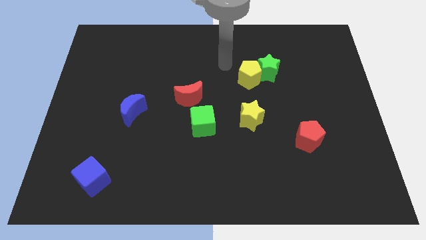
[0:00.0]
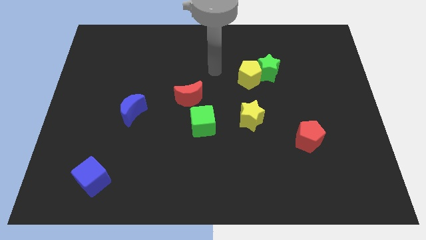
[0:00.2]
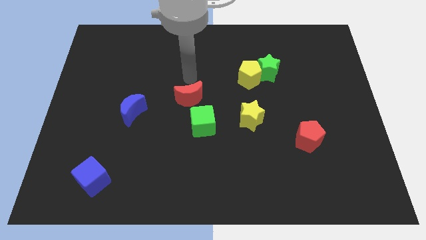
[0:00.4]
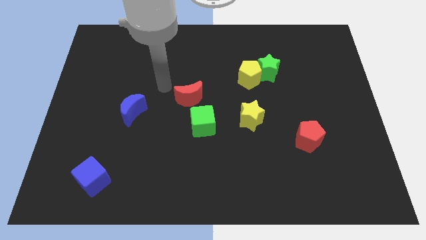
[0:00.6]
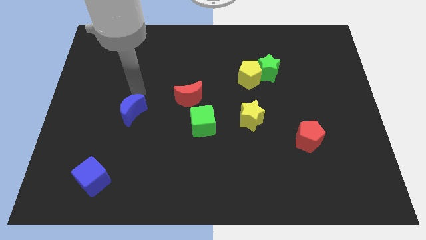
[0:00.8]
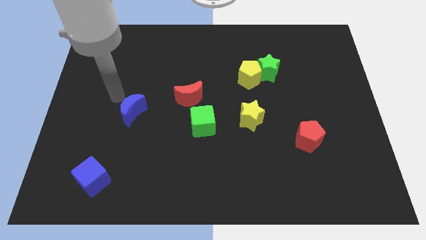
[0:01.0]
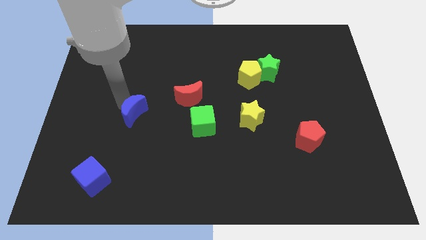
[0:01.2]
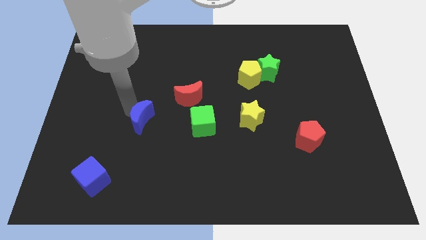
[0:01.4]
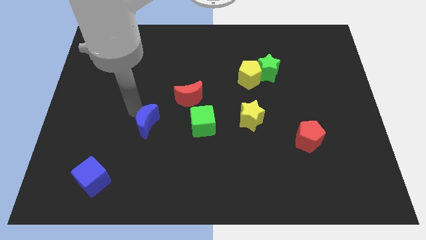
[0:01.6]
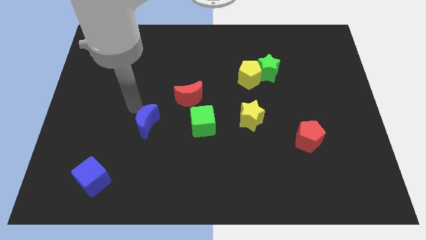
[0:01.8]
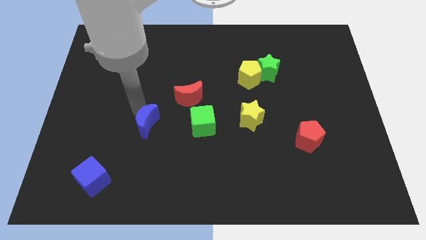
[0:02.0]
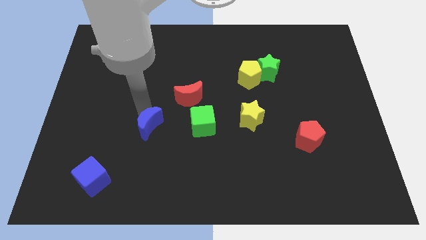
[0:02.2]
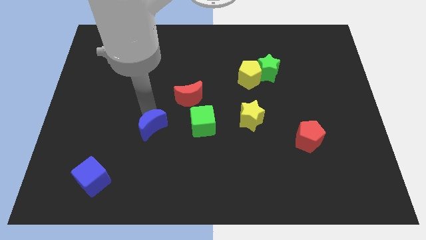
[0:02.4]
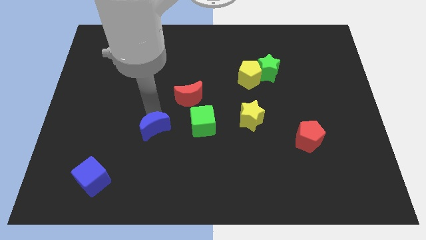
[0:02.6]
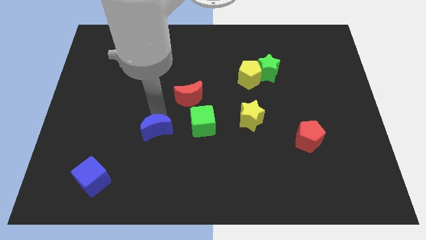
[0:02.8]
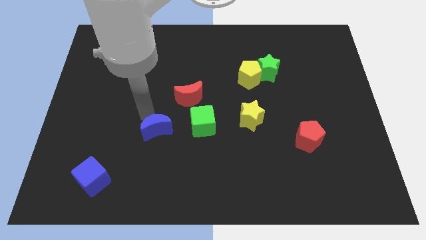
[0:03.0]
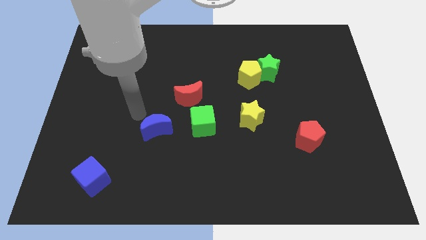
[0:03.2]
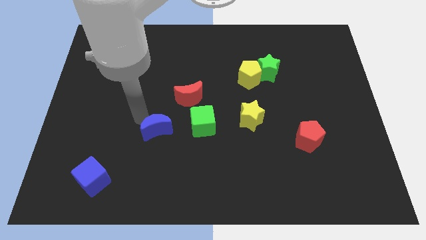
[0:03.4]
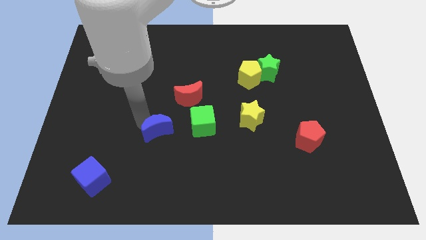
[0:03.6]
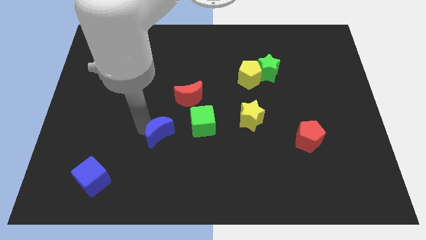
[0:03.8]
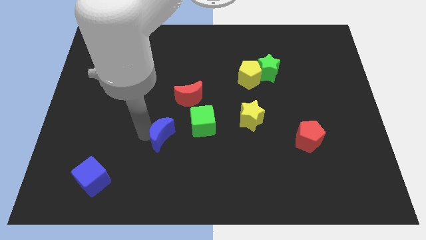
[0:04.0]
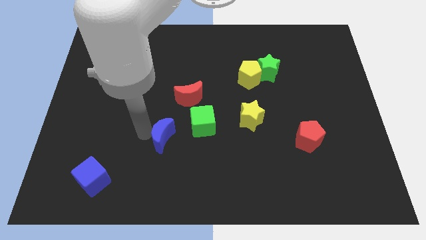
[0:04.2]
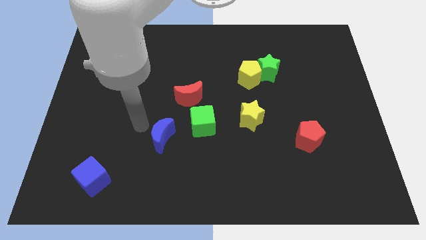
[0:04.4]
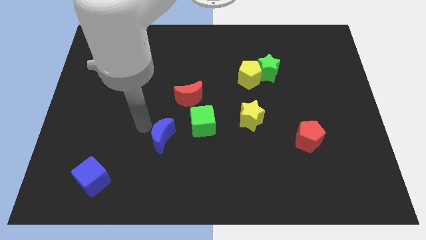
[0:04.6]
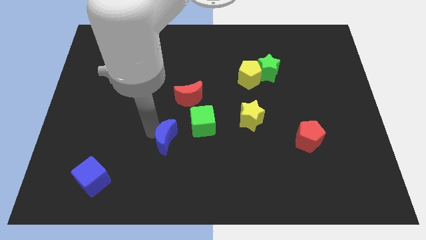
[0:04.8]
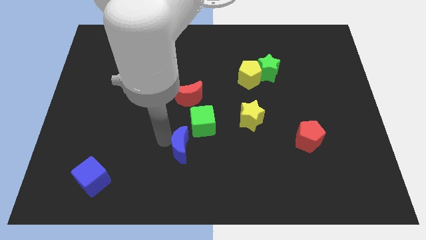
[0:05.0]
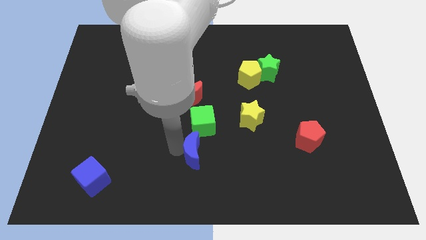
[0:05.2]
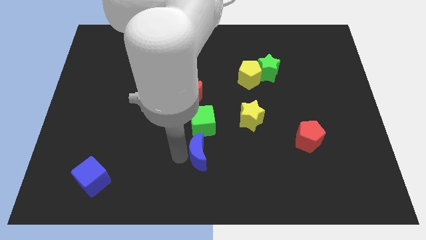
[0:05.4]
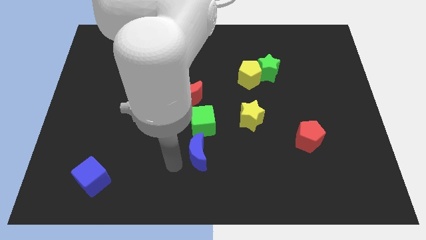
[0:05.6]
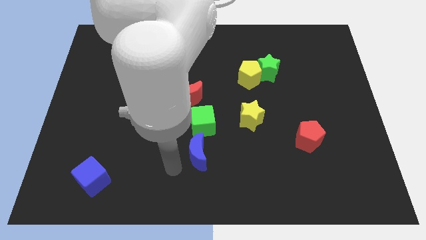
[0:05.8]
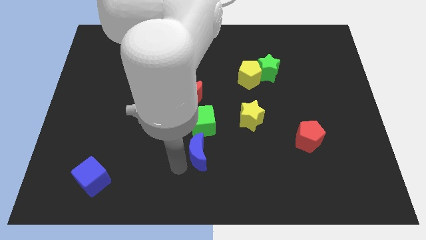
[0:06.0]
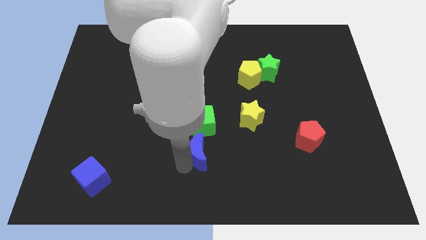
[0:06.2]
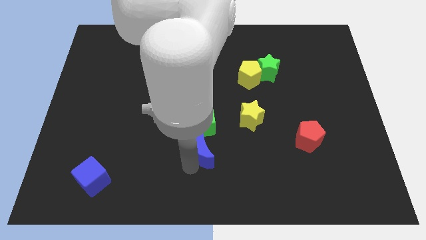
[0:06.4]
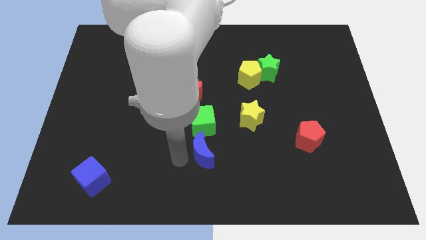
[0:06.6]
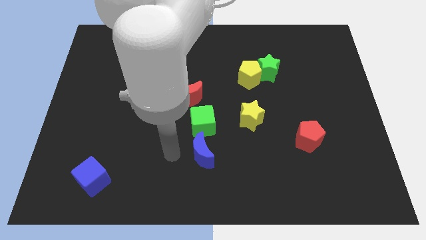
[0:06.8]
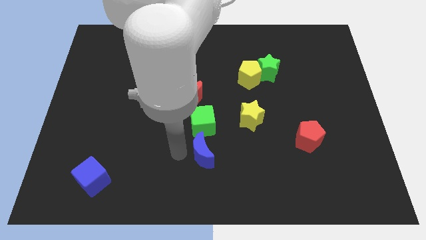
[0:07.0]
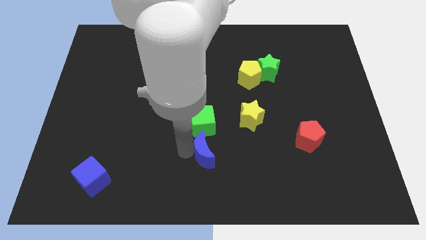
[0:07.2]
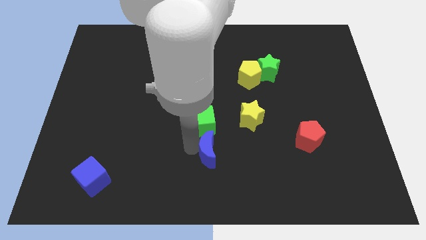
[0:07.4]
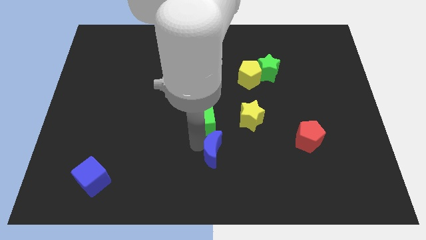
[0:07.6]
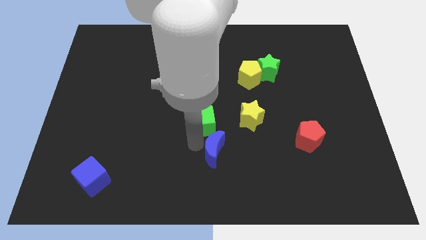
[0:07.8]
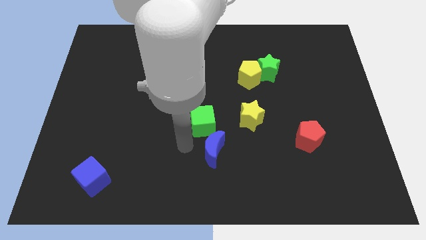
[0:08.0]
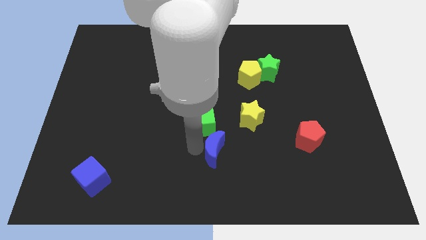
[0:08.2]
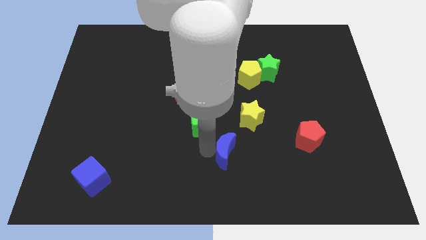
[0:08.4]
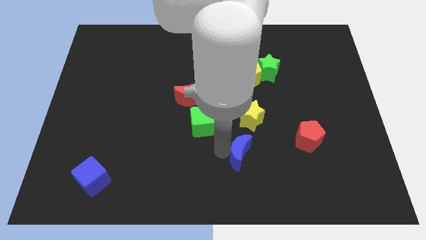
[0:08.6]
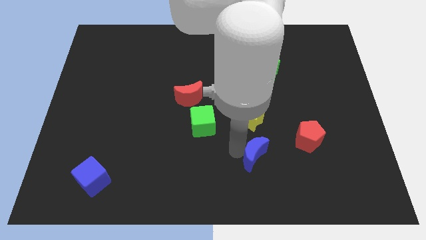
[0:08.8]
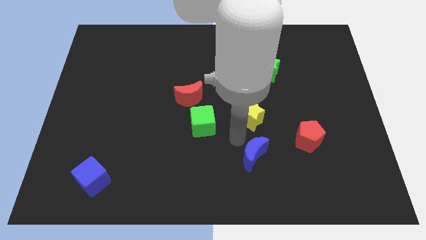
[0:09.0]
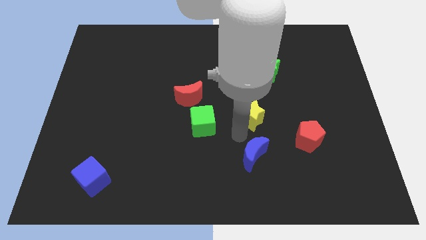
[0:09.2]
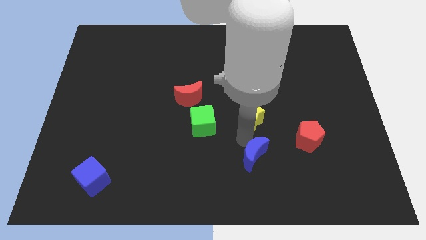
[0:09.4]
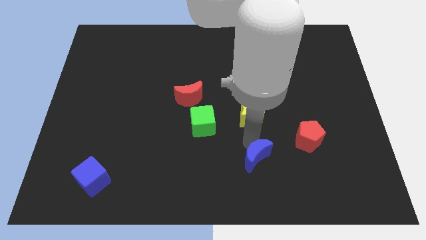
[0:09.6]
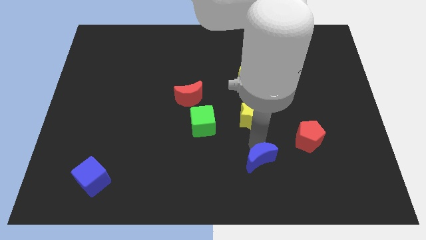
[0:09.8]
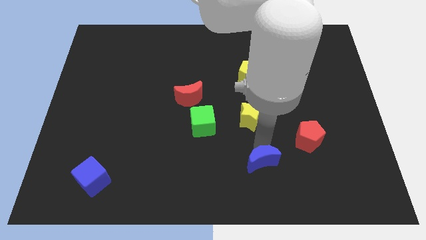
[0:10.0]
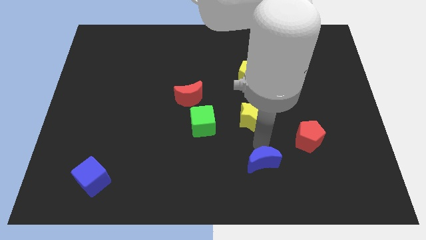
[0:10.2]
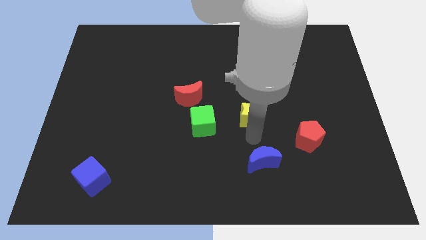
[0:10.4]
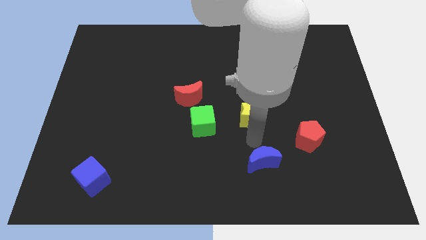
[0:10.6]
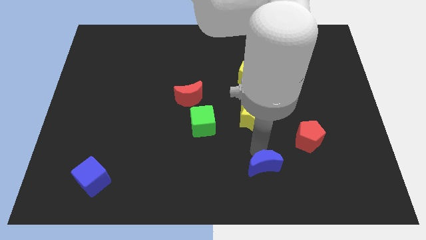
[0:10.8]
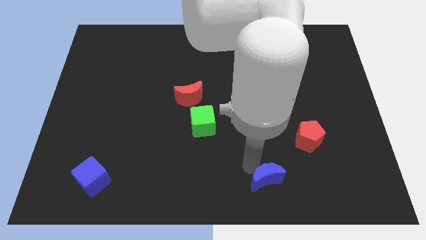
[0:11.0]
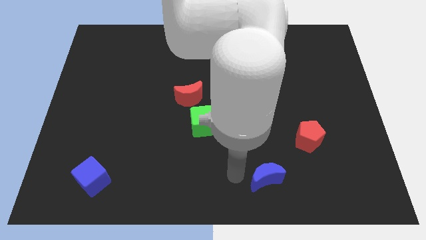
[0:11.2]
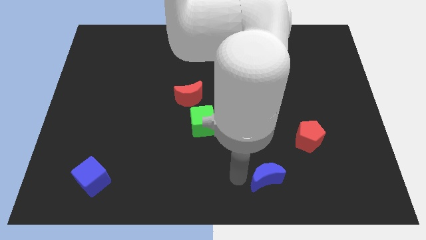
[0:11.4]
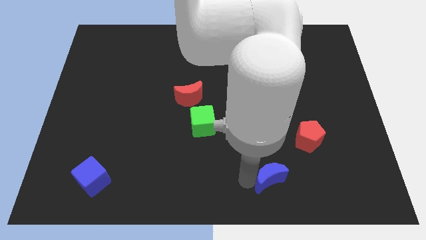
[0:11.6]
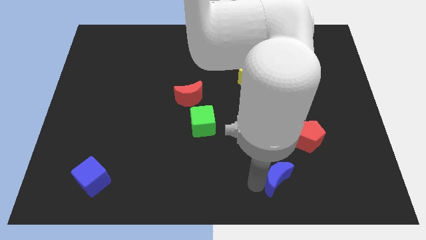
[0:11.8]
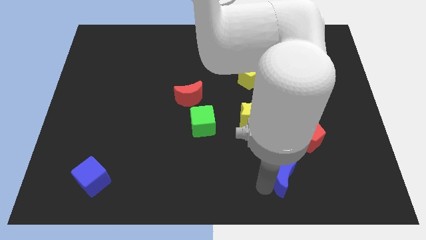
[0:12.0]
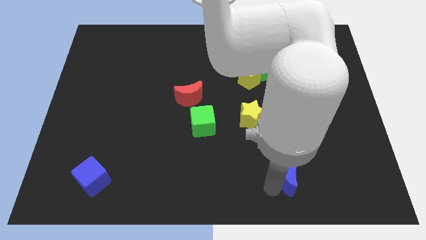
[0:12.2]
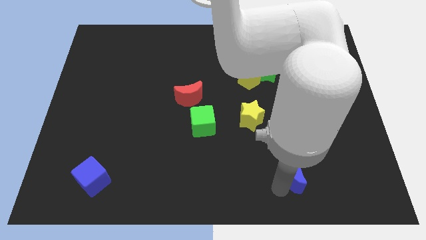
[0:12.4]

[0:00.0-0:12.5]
move the blue moon to the bottom of the red pentagon

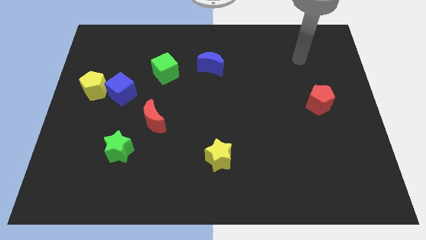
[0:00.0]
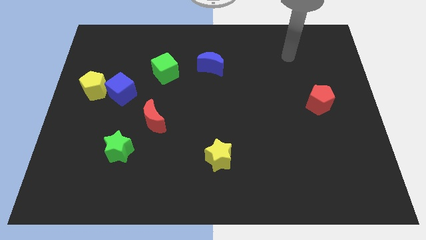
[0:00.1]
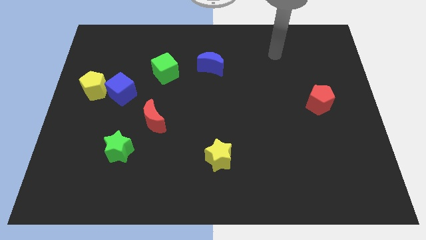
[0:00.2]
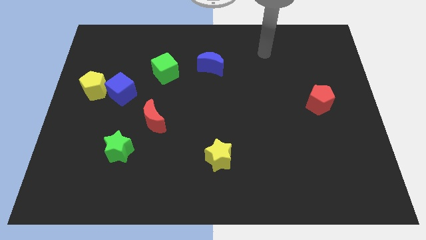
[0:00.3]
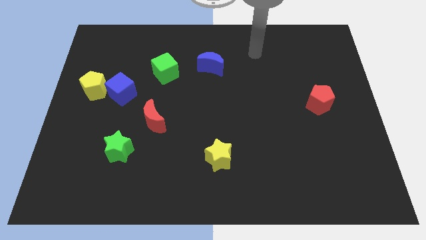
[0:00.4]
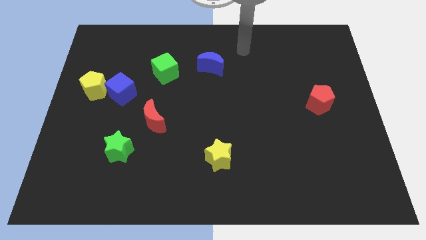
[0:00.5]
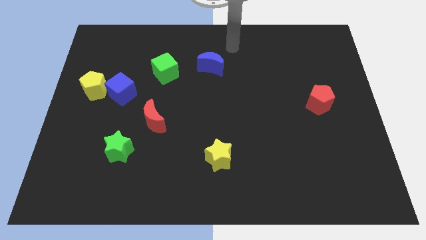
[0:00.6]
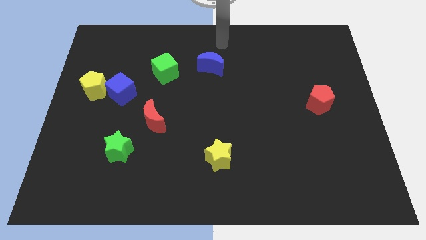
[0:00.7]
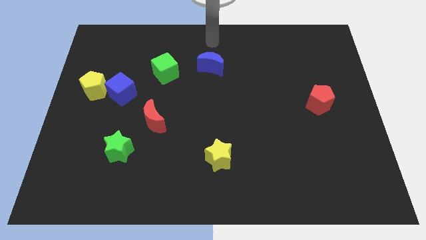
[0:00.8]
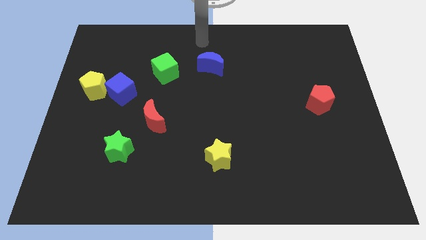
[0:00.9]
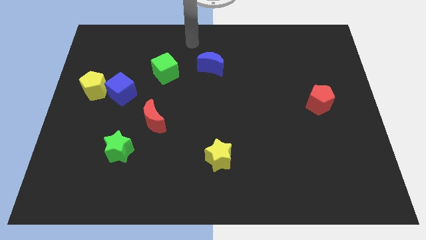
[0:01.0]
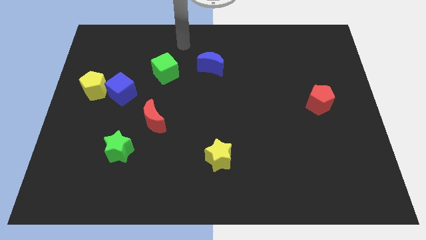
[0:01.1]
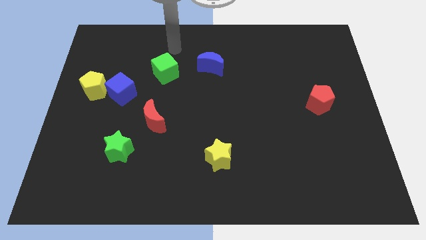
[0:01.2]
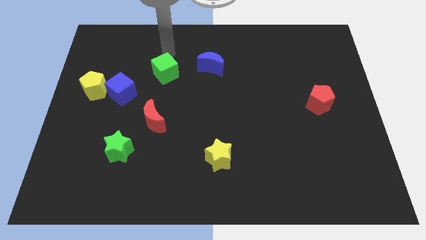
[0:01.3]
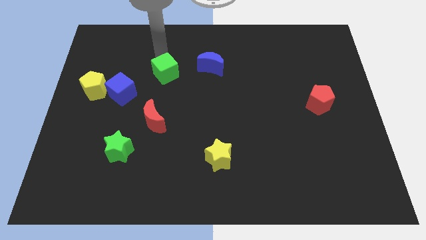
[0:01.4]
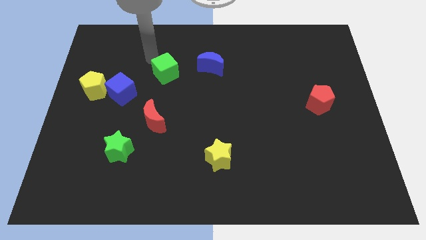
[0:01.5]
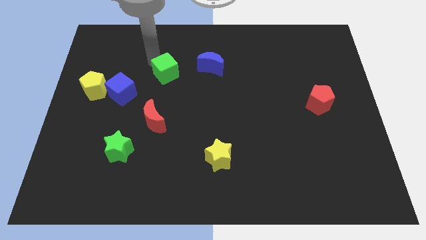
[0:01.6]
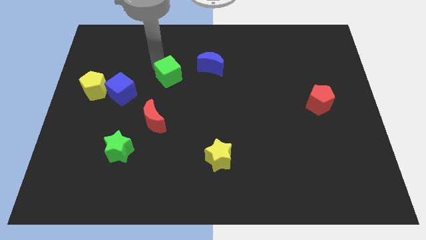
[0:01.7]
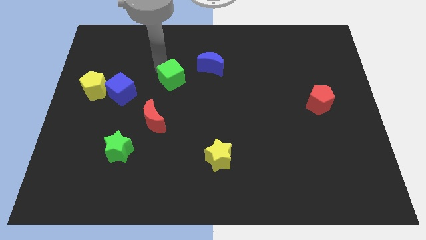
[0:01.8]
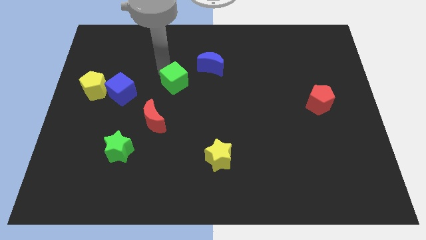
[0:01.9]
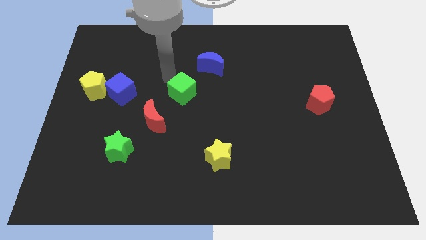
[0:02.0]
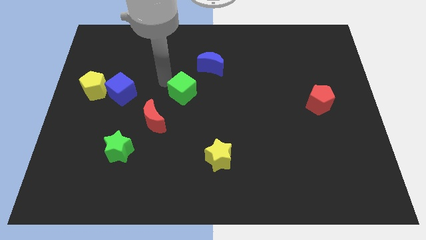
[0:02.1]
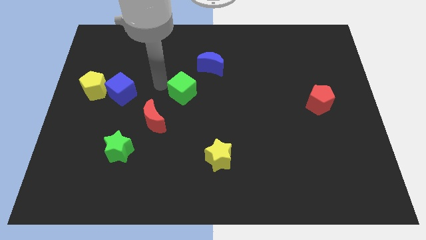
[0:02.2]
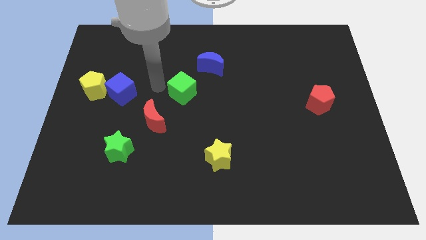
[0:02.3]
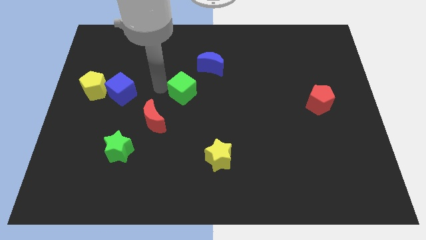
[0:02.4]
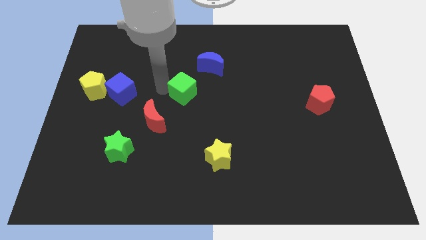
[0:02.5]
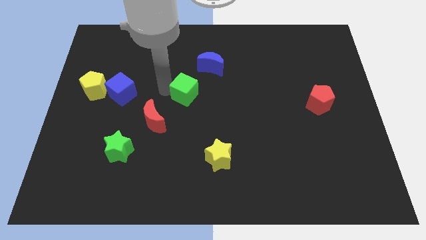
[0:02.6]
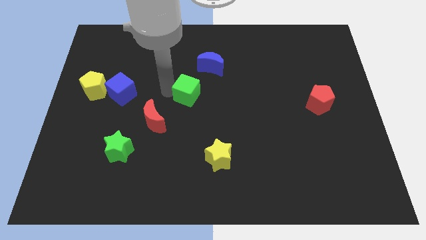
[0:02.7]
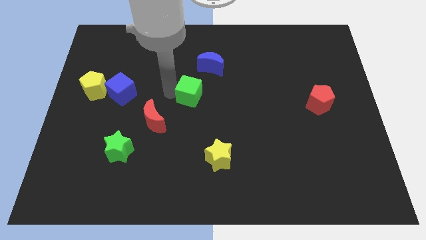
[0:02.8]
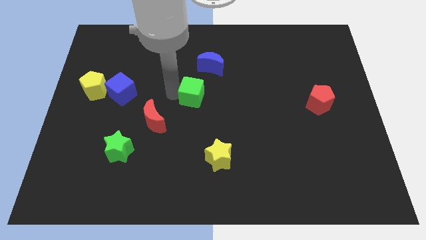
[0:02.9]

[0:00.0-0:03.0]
slide the green cube to the bottom side of the blue moon
